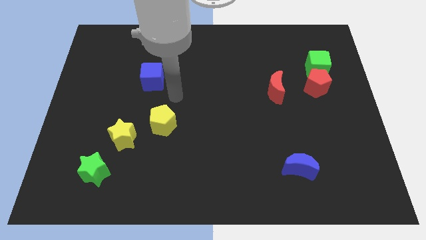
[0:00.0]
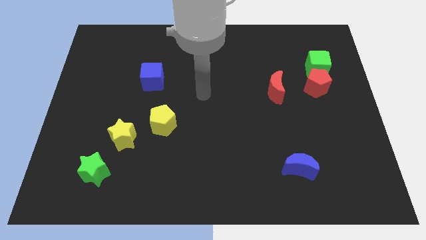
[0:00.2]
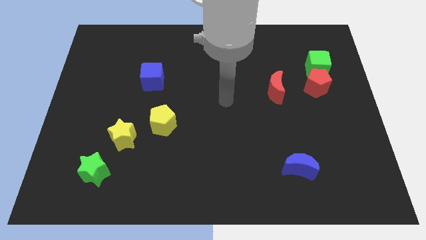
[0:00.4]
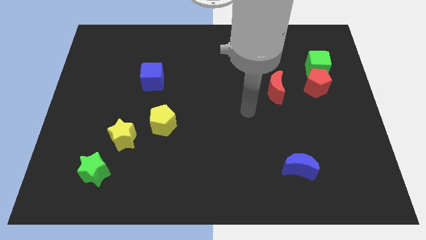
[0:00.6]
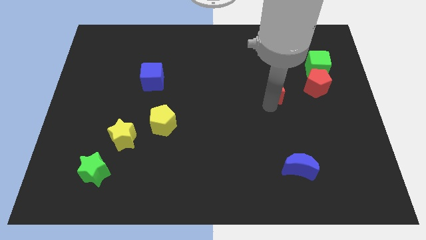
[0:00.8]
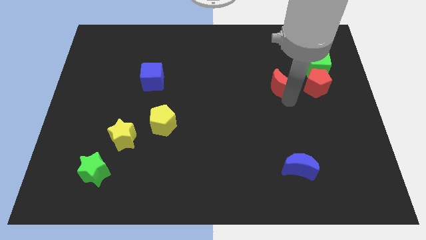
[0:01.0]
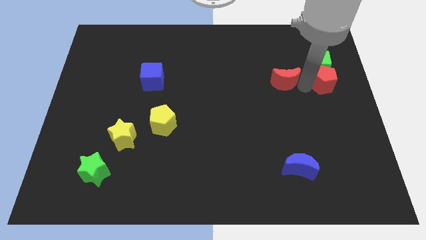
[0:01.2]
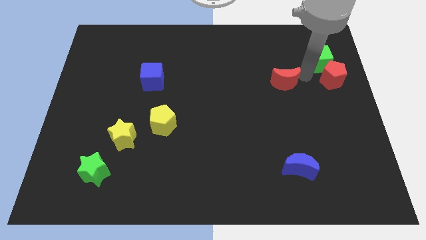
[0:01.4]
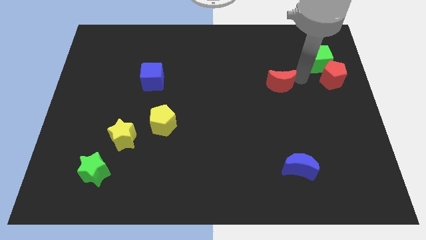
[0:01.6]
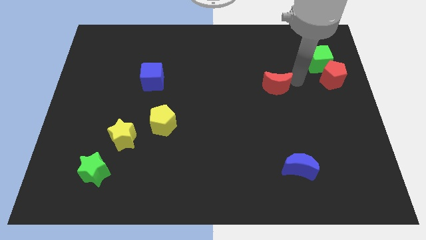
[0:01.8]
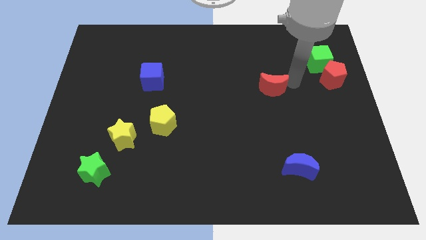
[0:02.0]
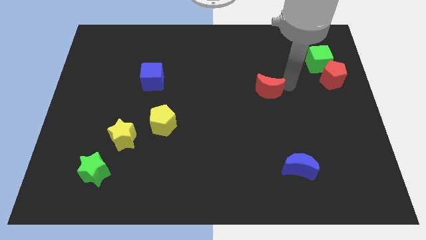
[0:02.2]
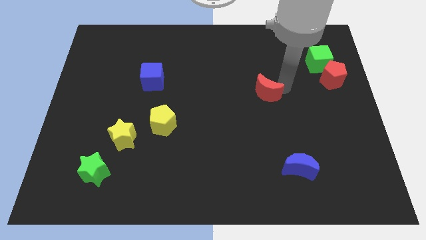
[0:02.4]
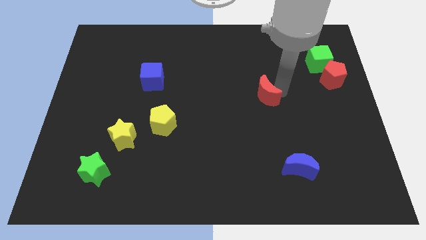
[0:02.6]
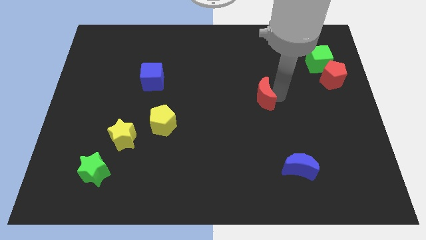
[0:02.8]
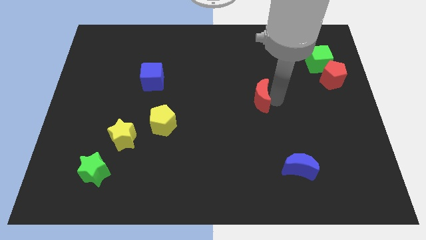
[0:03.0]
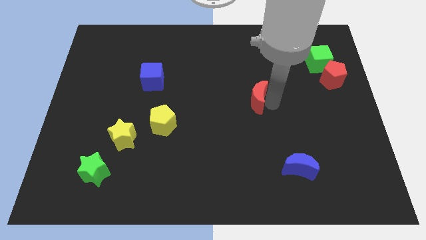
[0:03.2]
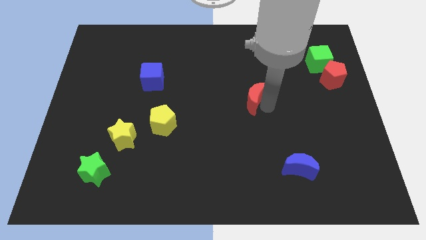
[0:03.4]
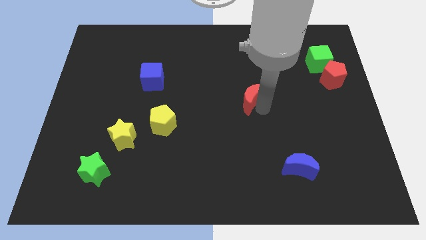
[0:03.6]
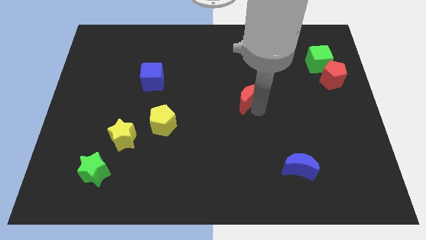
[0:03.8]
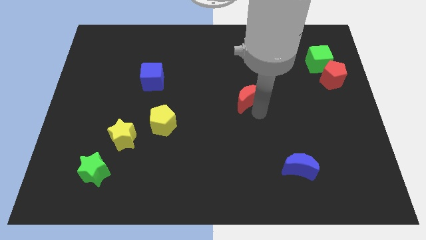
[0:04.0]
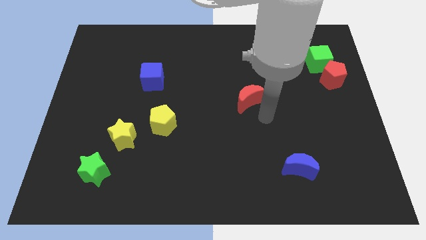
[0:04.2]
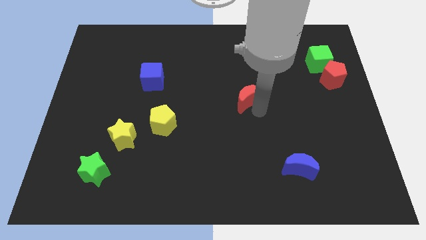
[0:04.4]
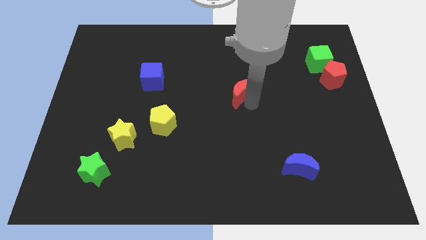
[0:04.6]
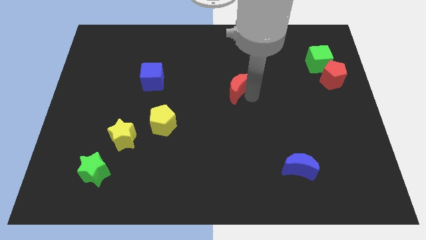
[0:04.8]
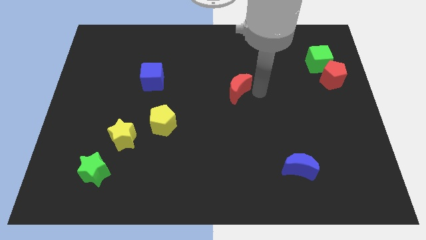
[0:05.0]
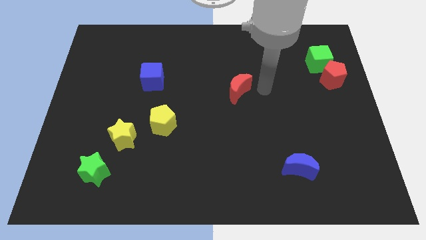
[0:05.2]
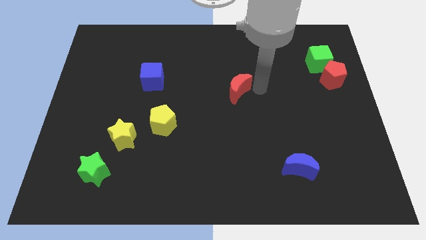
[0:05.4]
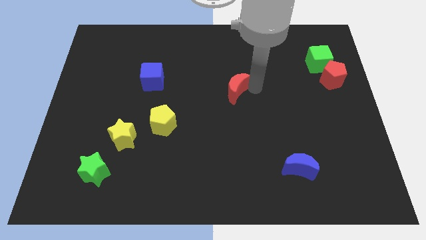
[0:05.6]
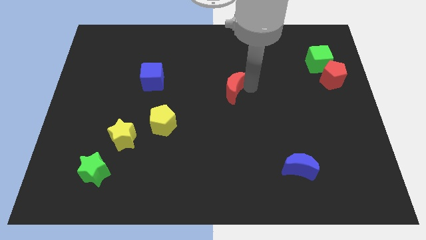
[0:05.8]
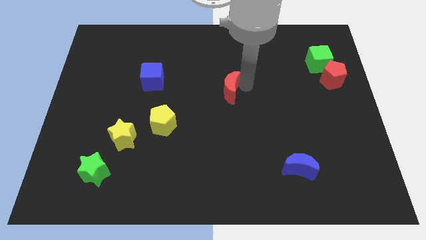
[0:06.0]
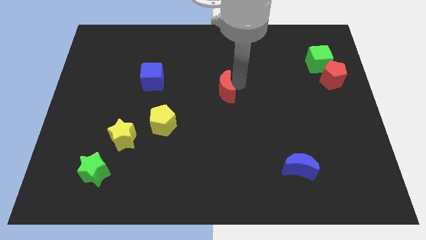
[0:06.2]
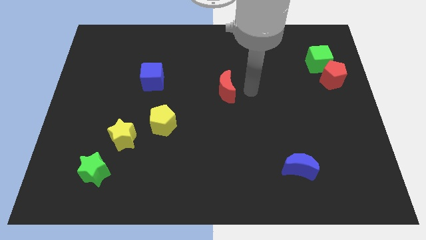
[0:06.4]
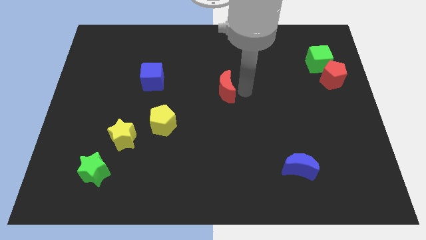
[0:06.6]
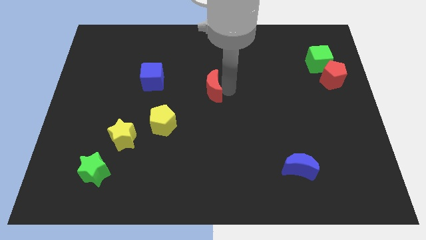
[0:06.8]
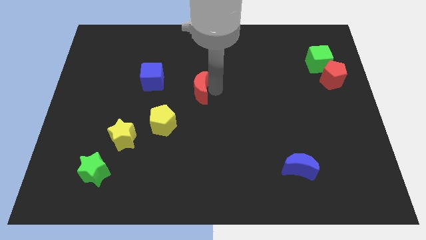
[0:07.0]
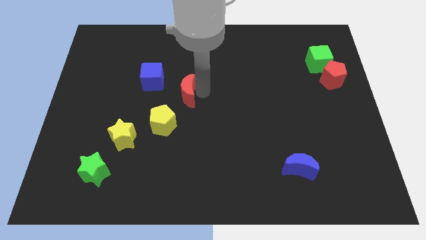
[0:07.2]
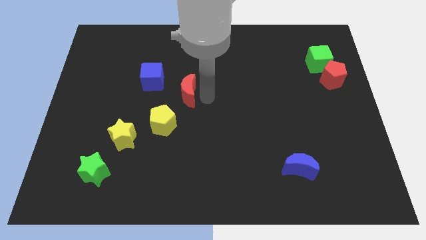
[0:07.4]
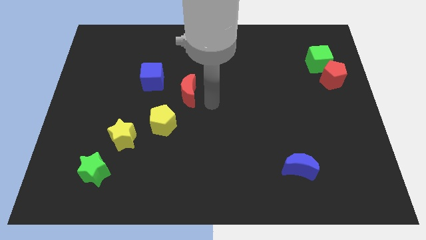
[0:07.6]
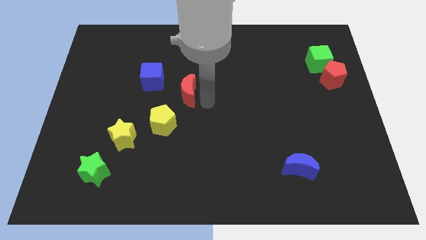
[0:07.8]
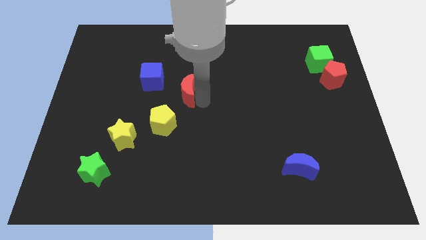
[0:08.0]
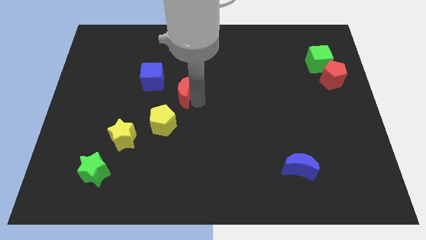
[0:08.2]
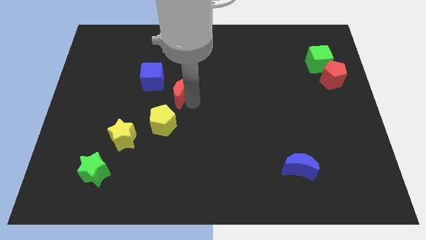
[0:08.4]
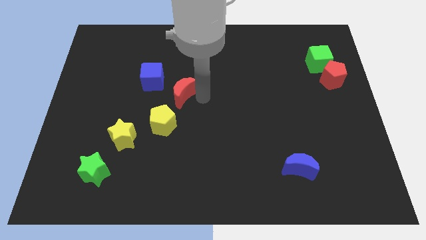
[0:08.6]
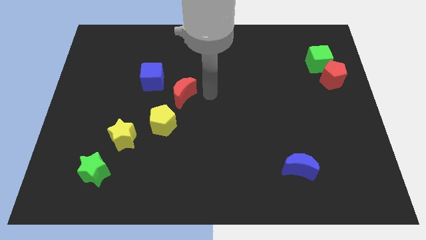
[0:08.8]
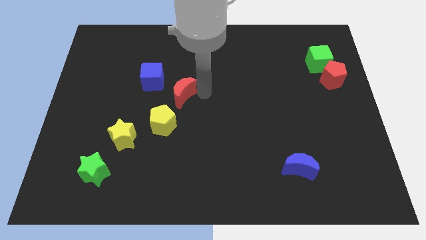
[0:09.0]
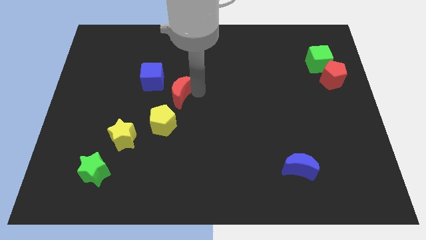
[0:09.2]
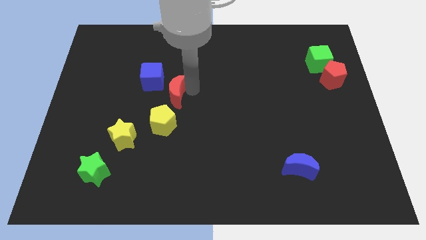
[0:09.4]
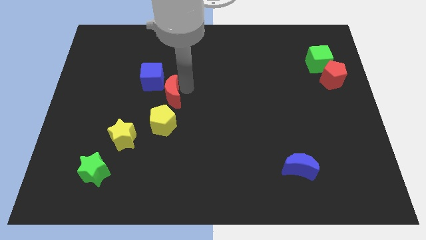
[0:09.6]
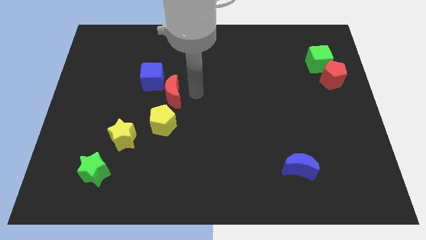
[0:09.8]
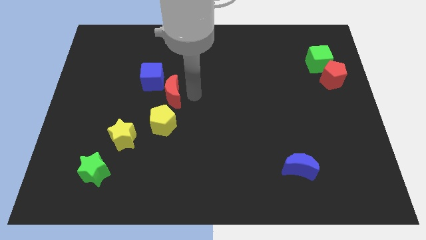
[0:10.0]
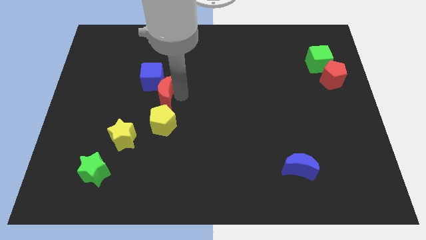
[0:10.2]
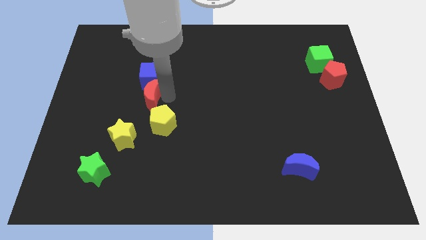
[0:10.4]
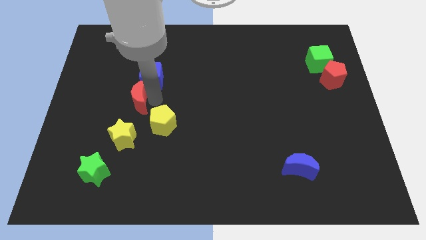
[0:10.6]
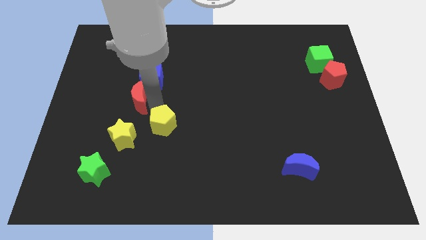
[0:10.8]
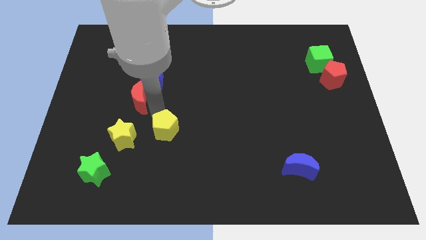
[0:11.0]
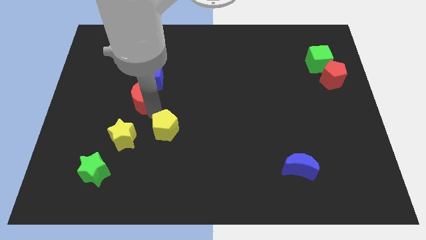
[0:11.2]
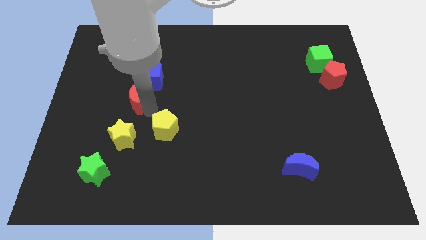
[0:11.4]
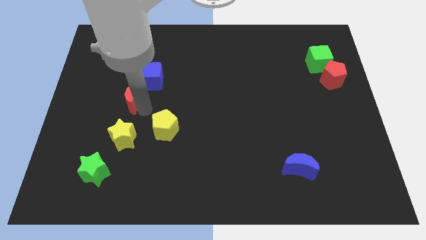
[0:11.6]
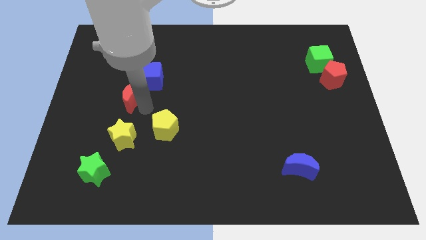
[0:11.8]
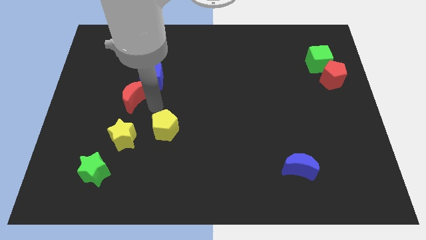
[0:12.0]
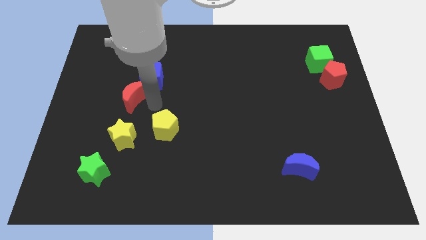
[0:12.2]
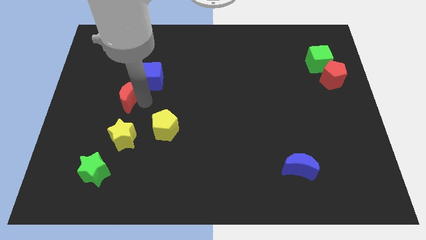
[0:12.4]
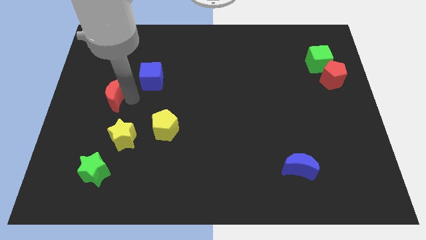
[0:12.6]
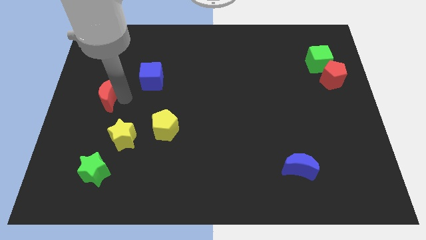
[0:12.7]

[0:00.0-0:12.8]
push the red moon to the left side of the board
